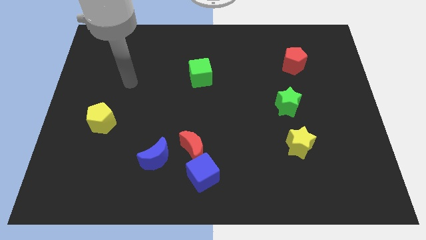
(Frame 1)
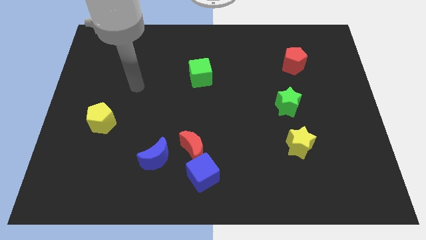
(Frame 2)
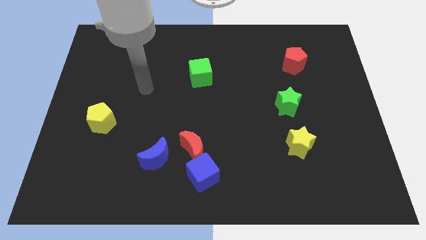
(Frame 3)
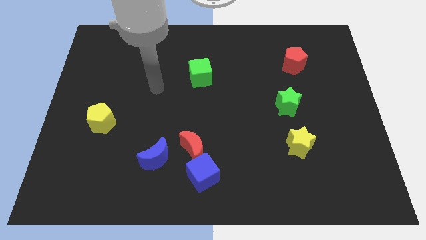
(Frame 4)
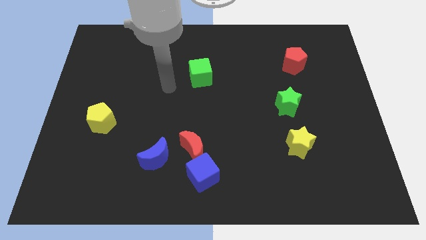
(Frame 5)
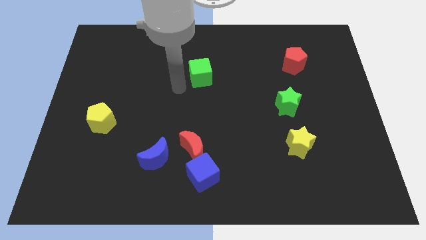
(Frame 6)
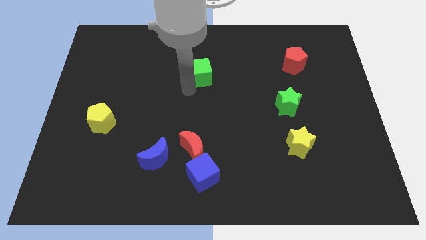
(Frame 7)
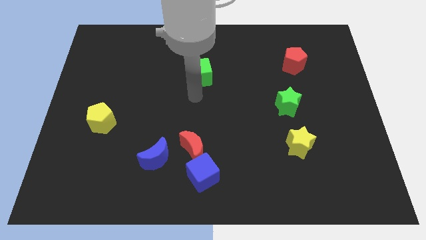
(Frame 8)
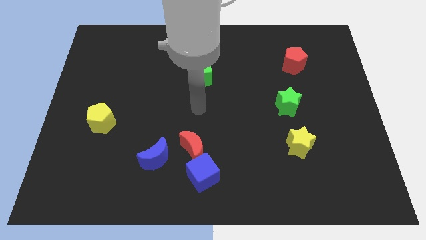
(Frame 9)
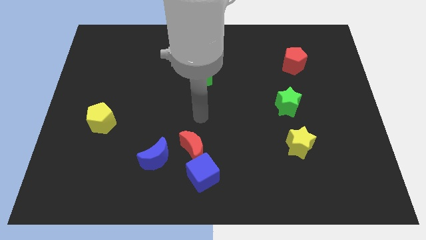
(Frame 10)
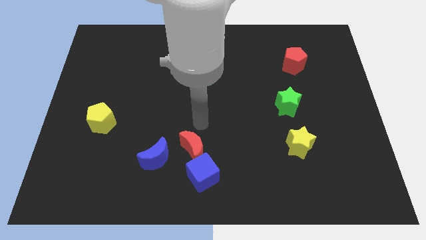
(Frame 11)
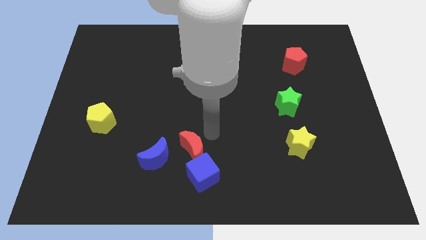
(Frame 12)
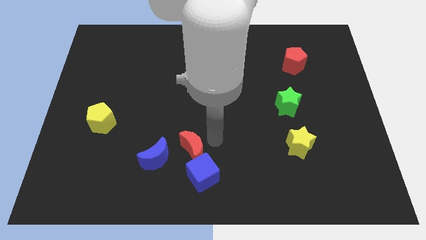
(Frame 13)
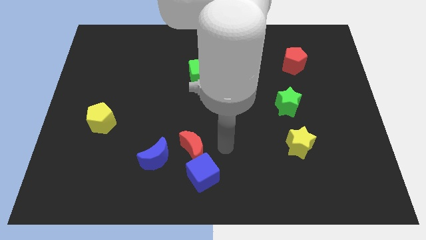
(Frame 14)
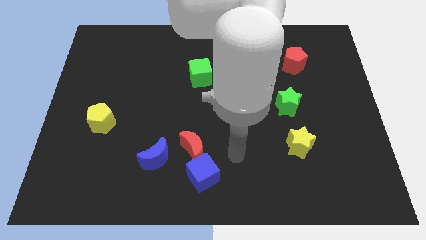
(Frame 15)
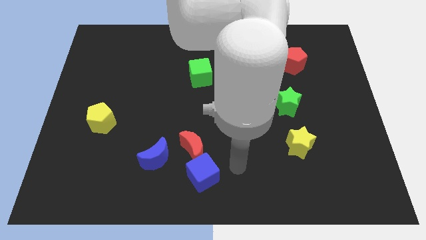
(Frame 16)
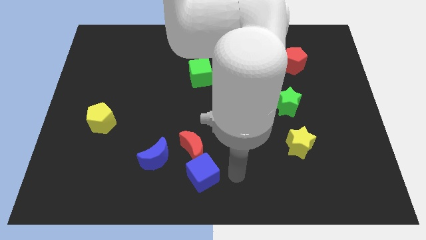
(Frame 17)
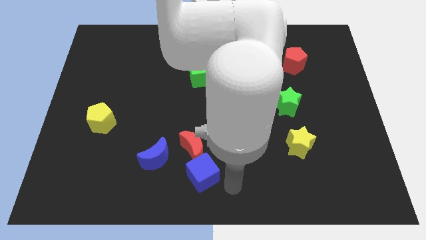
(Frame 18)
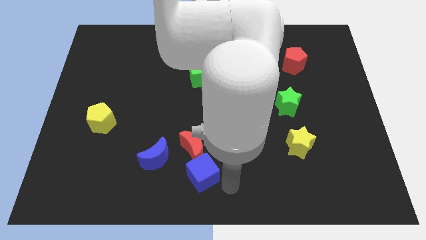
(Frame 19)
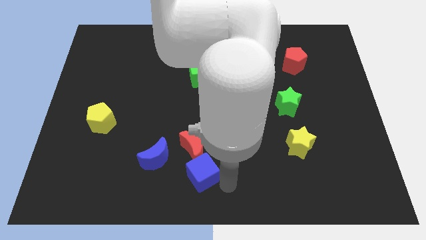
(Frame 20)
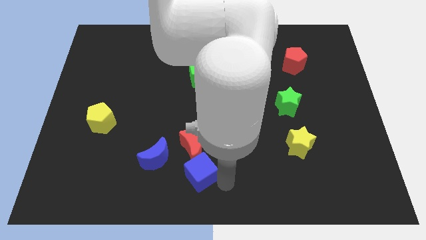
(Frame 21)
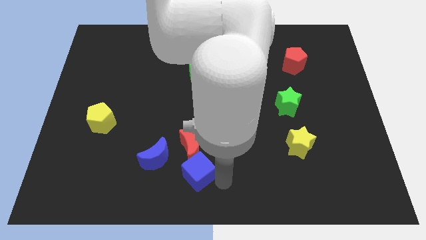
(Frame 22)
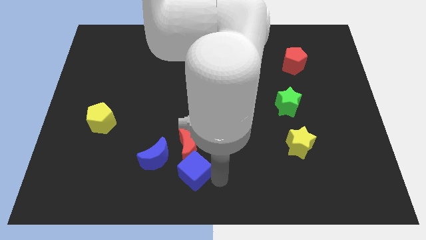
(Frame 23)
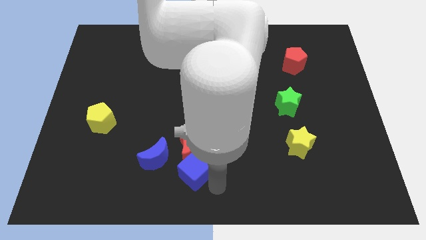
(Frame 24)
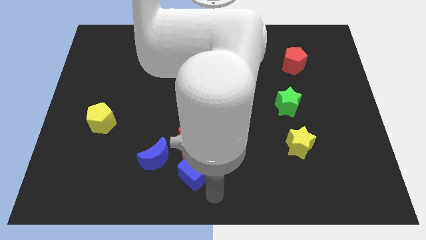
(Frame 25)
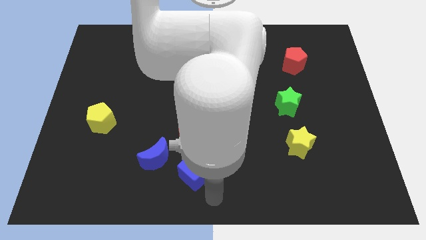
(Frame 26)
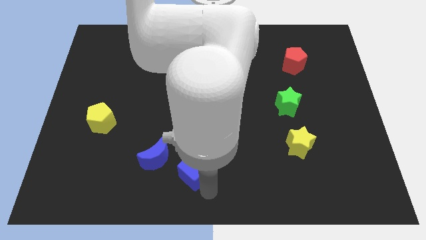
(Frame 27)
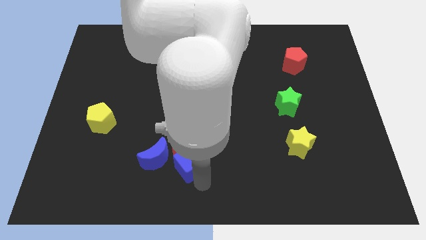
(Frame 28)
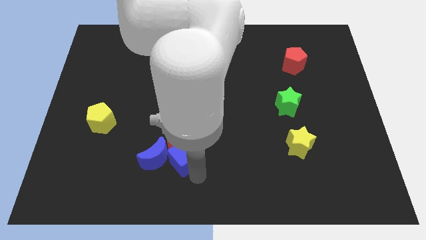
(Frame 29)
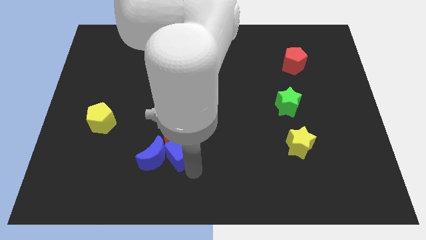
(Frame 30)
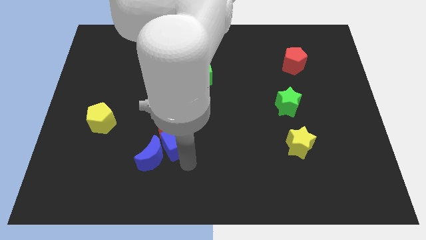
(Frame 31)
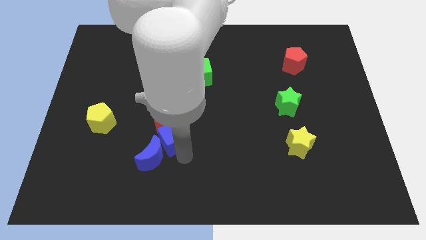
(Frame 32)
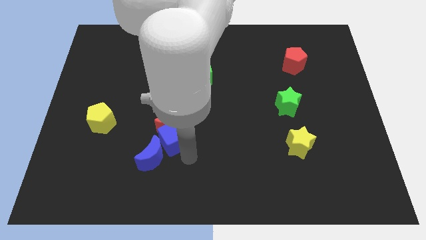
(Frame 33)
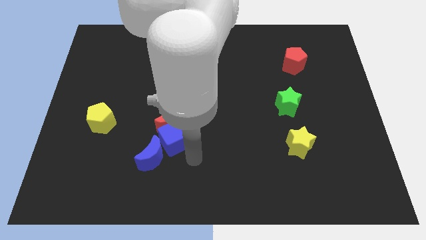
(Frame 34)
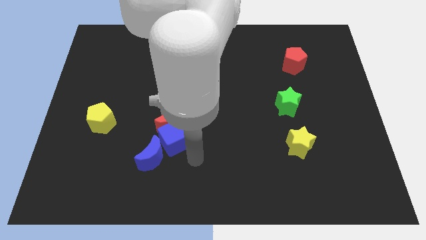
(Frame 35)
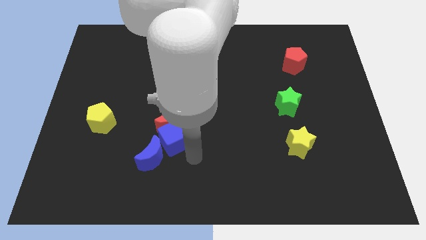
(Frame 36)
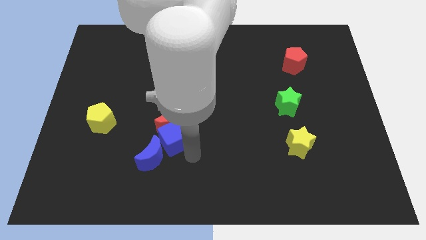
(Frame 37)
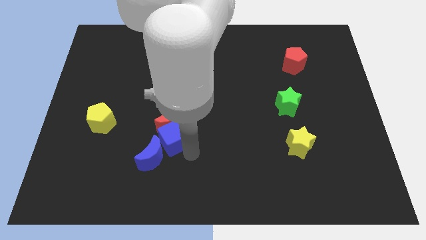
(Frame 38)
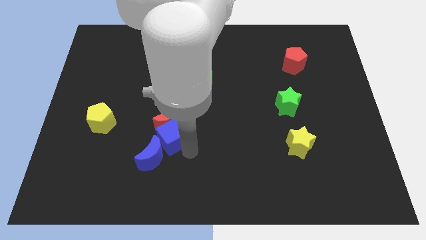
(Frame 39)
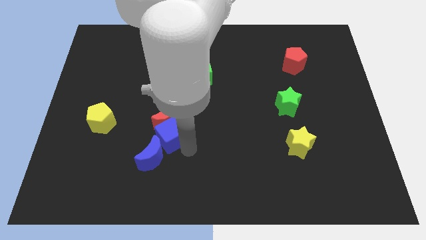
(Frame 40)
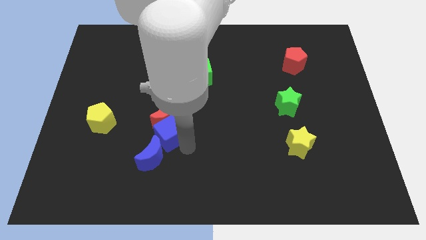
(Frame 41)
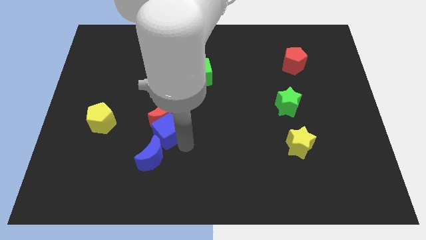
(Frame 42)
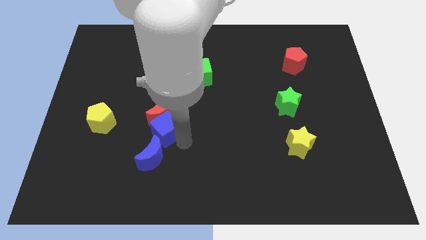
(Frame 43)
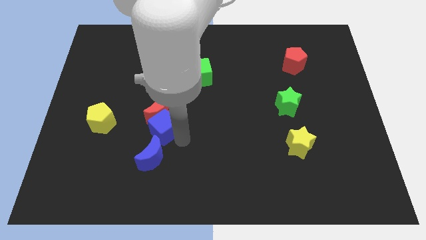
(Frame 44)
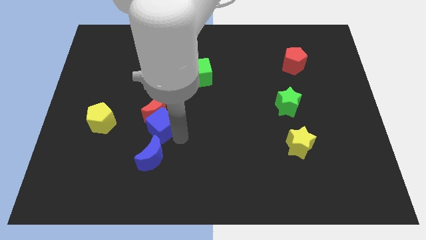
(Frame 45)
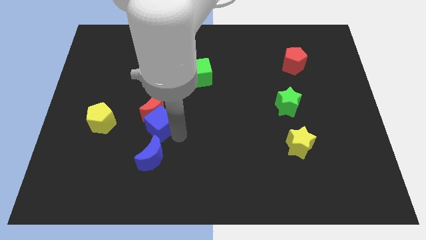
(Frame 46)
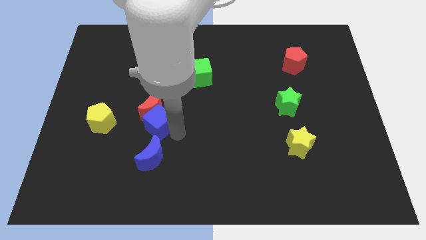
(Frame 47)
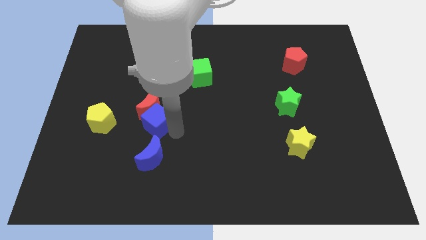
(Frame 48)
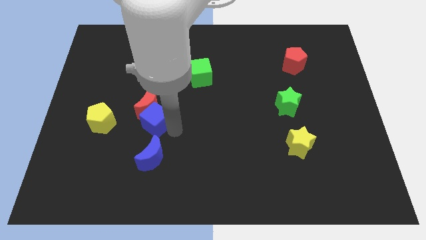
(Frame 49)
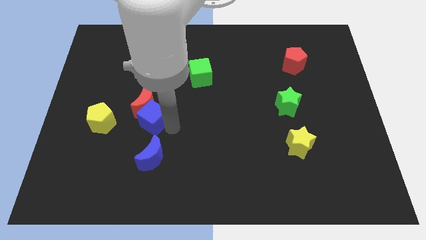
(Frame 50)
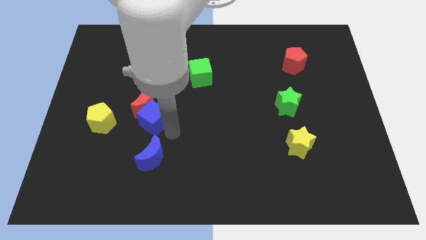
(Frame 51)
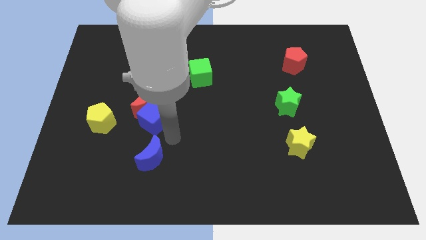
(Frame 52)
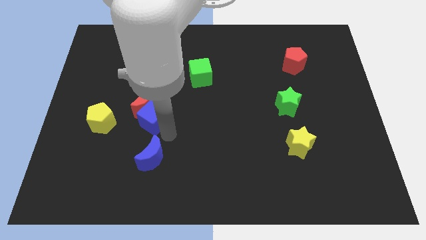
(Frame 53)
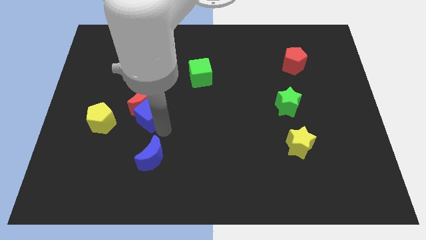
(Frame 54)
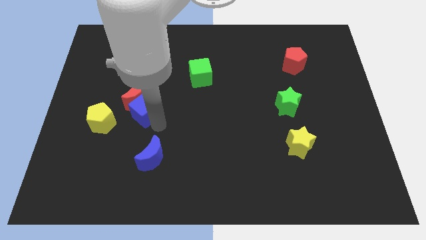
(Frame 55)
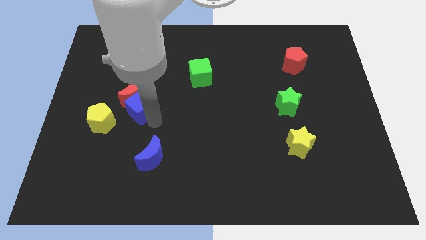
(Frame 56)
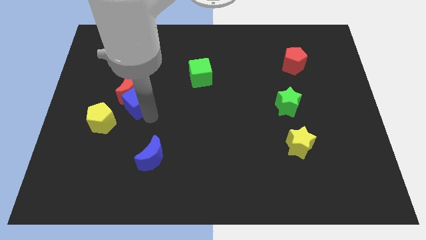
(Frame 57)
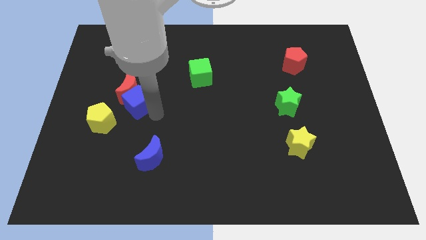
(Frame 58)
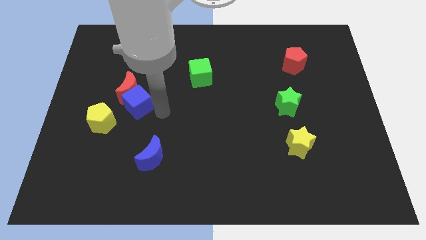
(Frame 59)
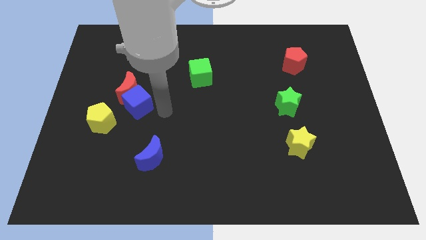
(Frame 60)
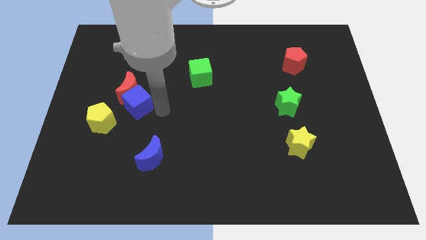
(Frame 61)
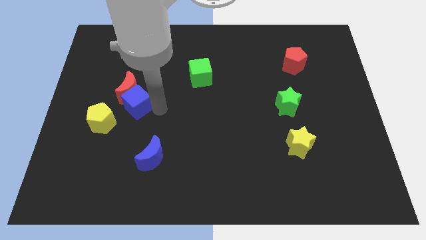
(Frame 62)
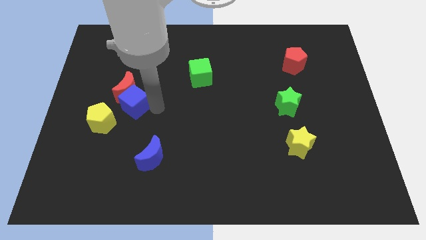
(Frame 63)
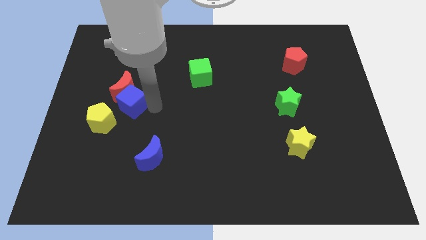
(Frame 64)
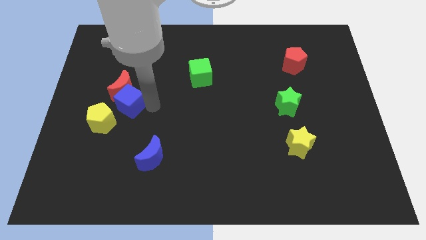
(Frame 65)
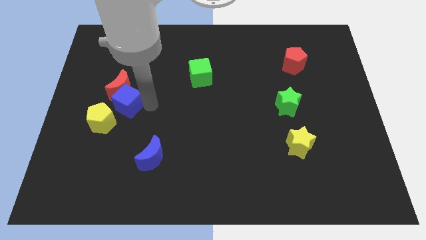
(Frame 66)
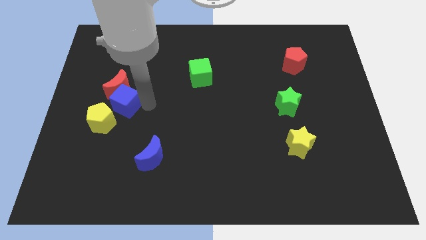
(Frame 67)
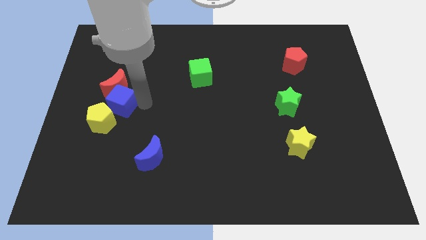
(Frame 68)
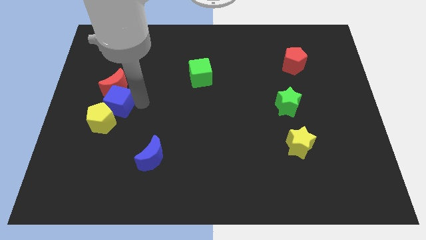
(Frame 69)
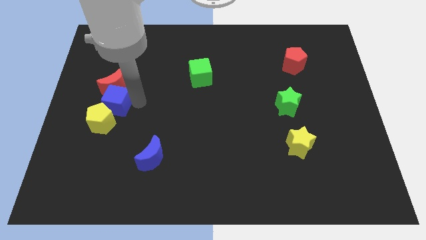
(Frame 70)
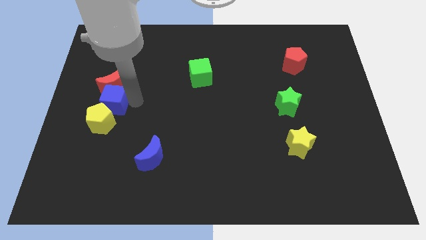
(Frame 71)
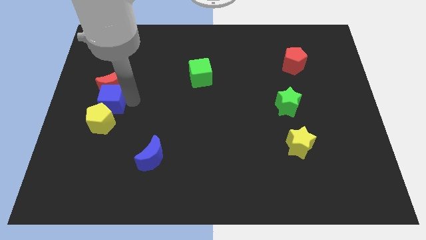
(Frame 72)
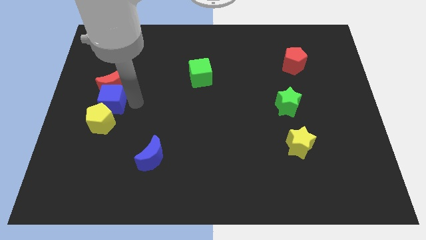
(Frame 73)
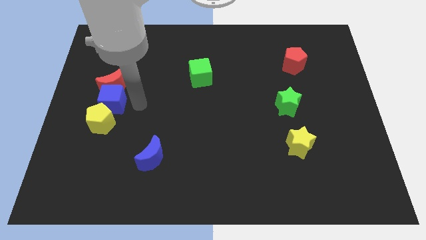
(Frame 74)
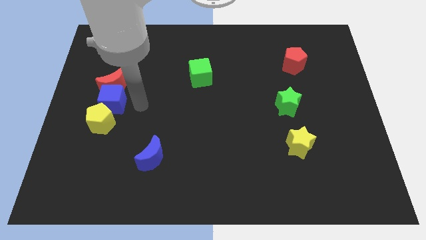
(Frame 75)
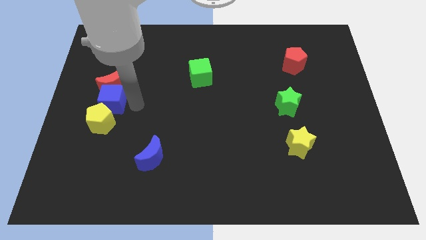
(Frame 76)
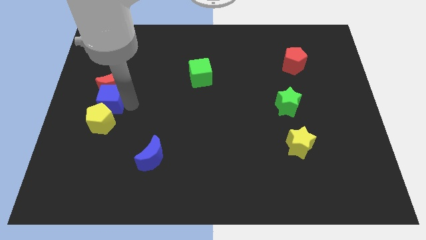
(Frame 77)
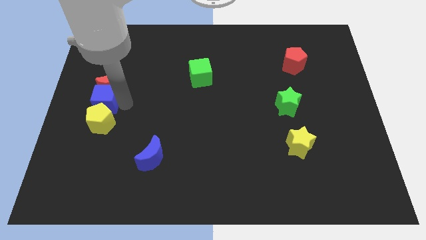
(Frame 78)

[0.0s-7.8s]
move the blue cube to the left side
